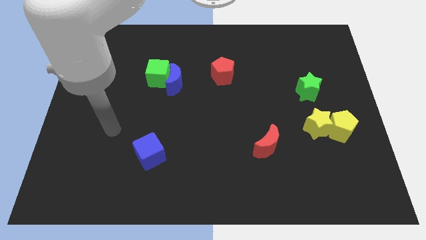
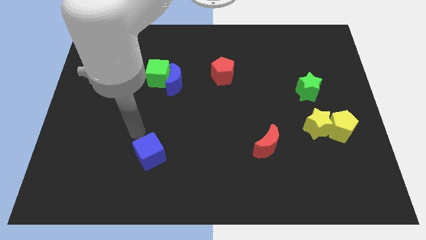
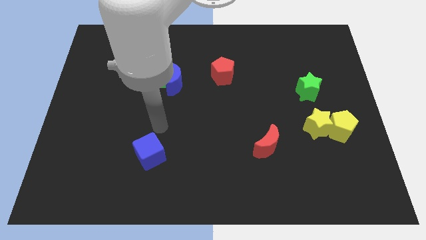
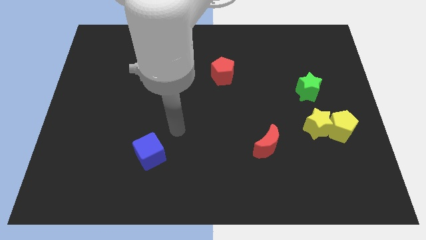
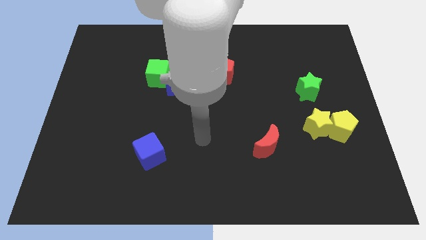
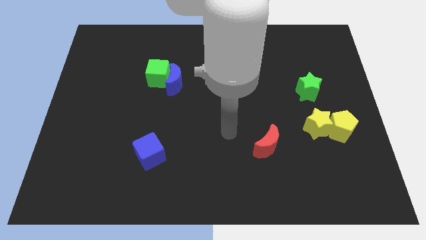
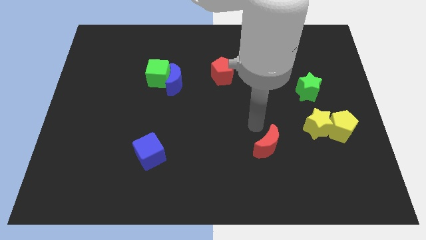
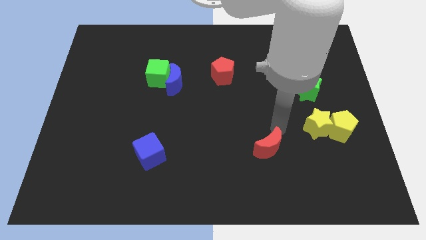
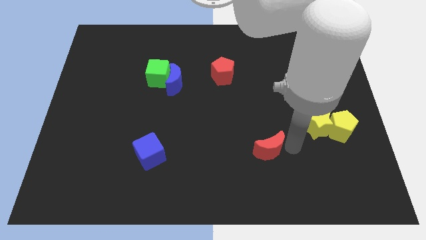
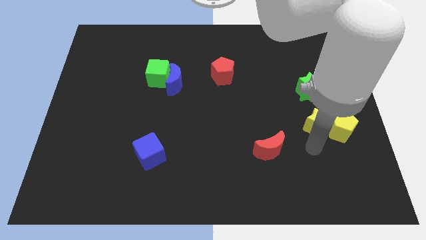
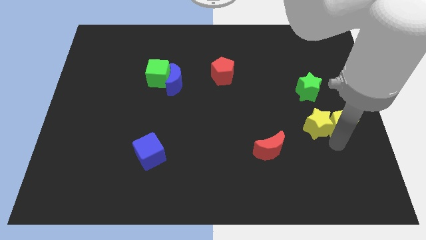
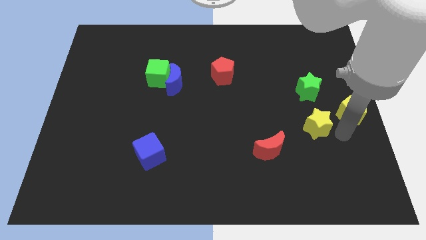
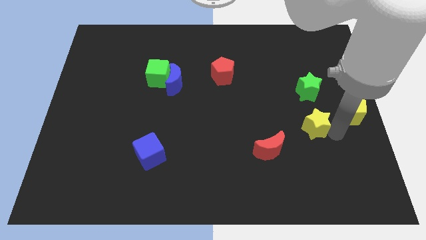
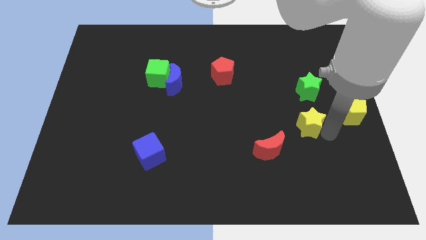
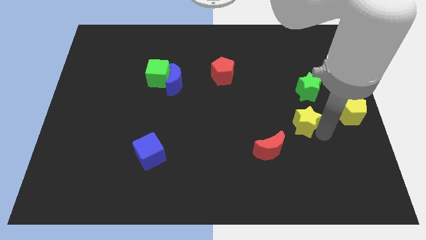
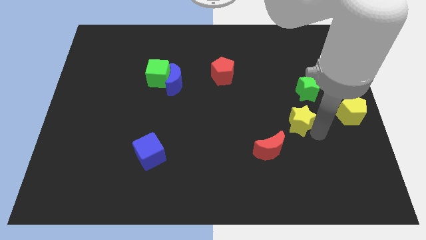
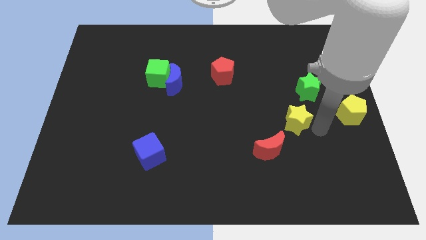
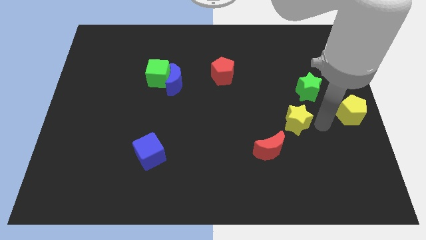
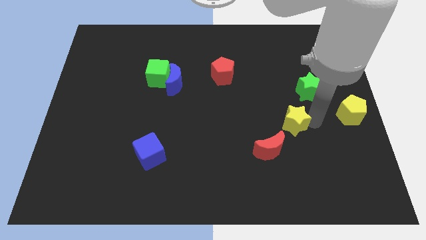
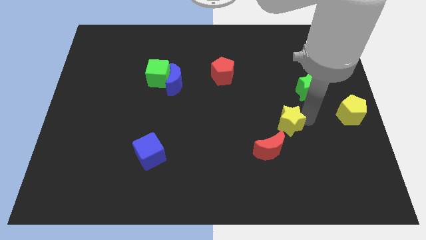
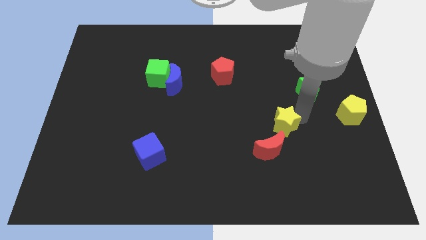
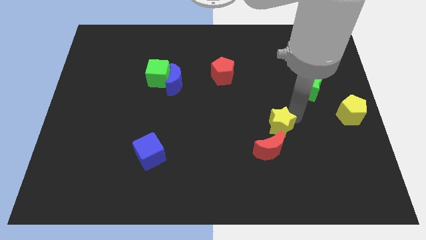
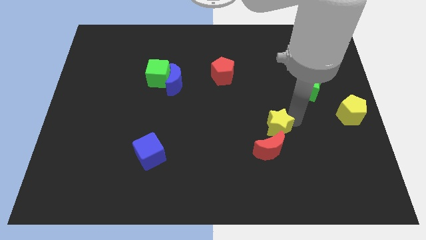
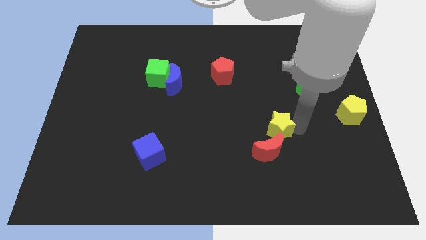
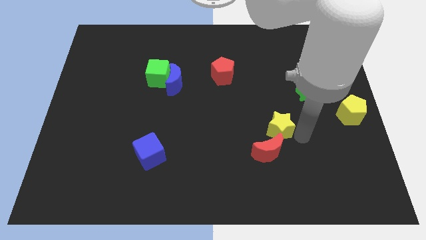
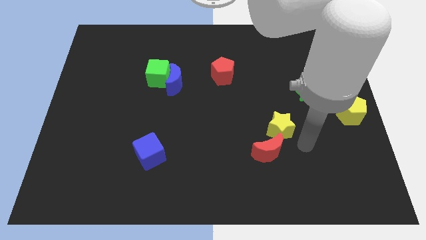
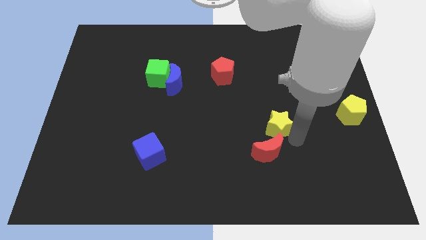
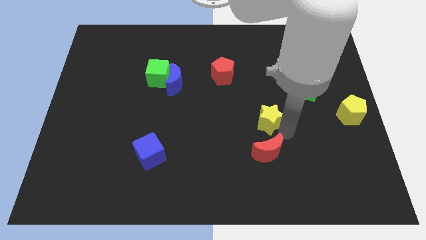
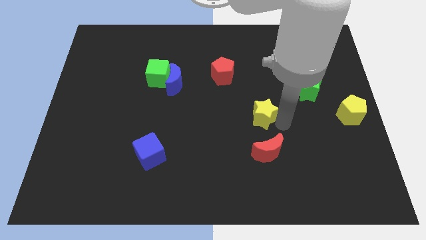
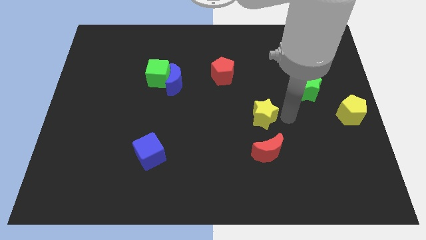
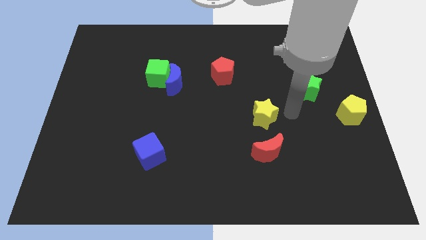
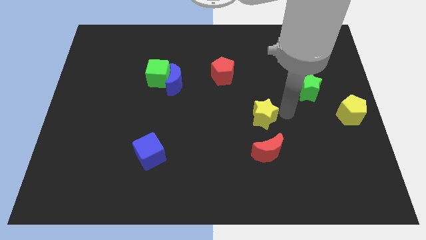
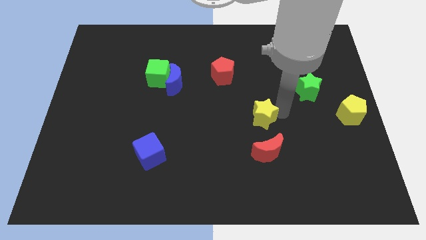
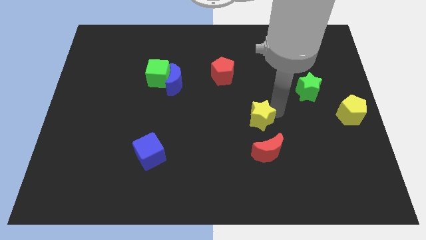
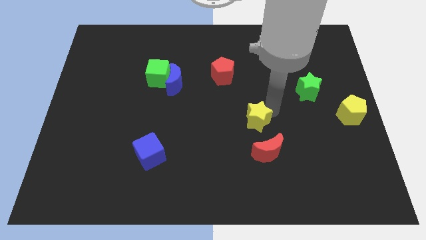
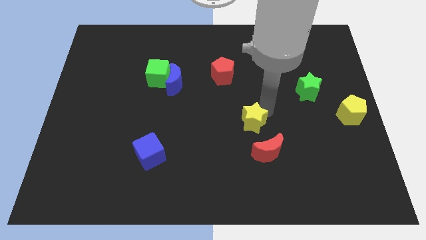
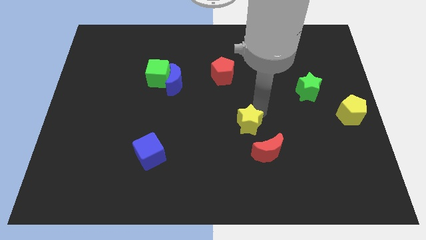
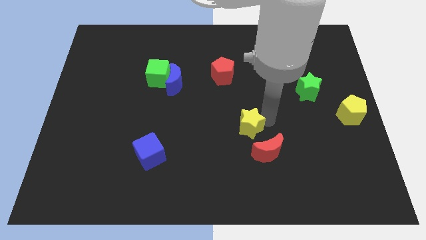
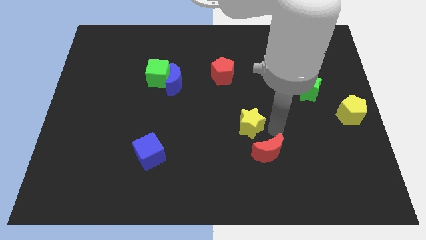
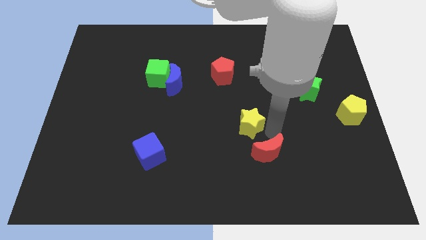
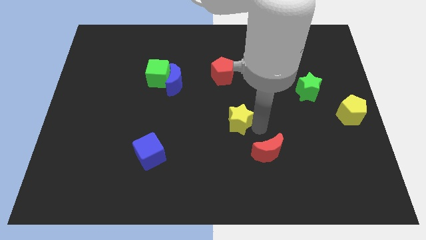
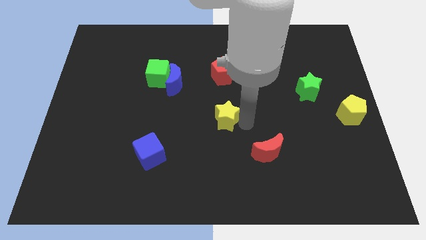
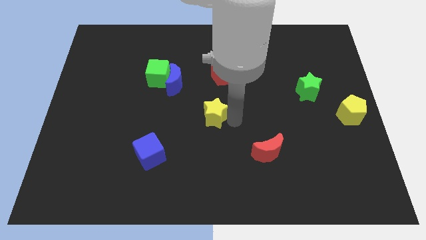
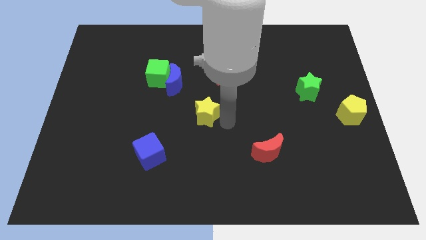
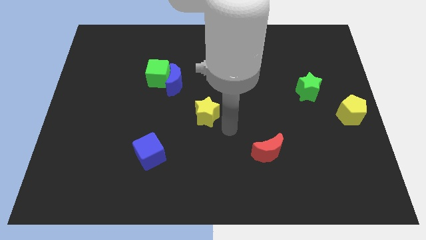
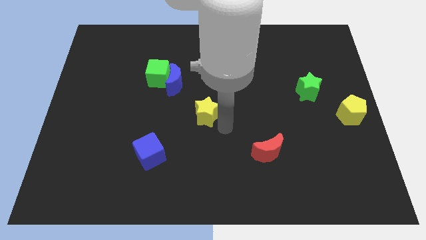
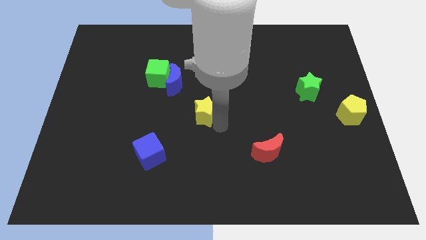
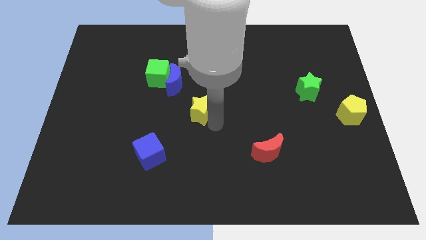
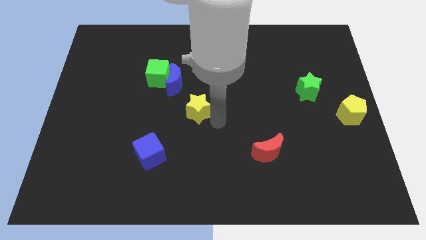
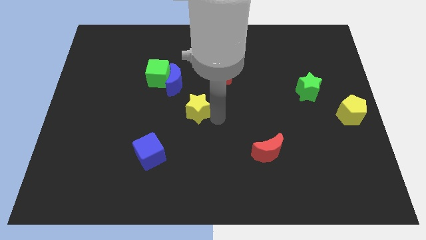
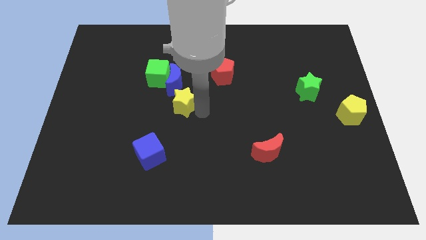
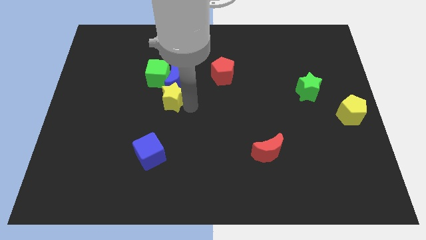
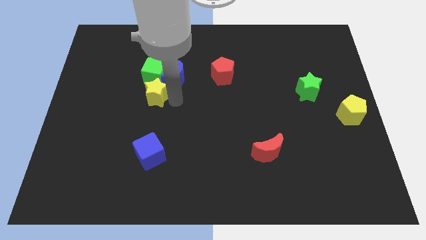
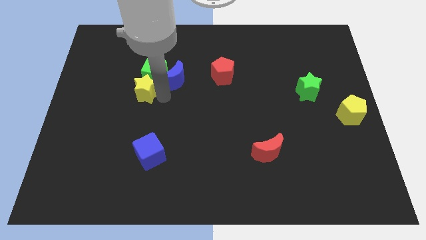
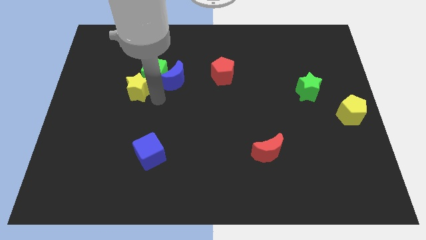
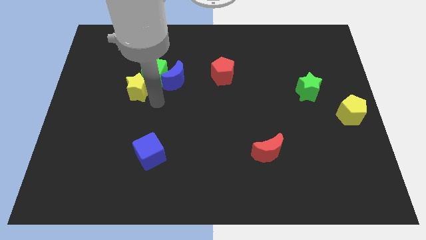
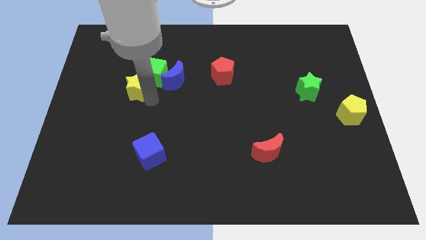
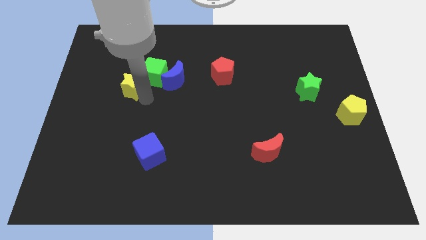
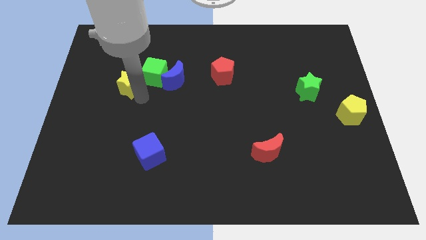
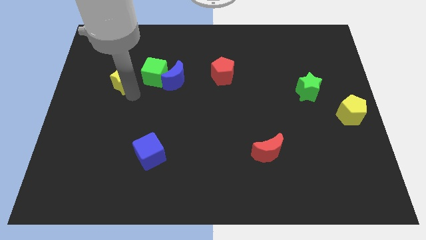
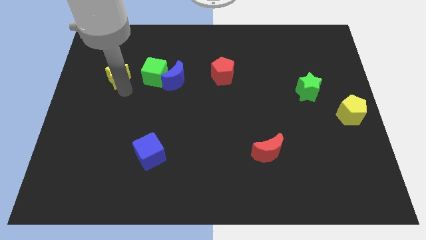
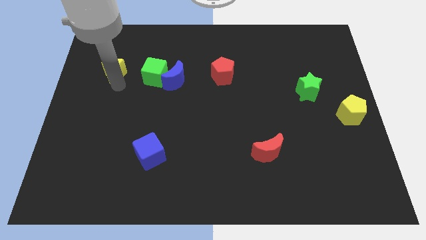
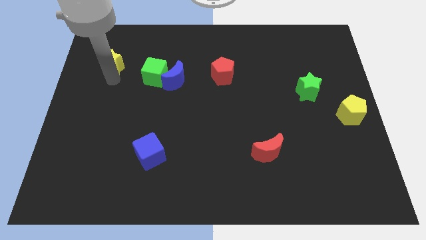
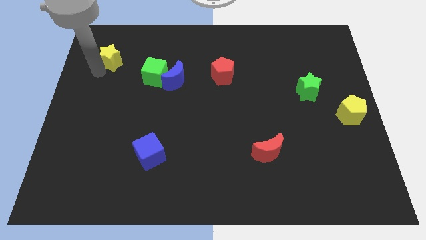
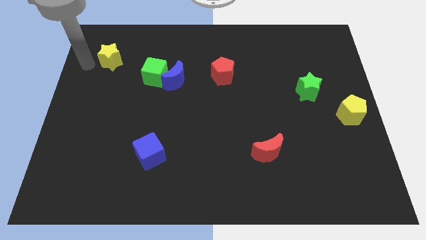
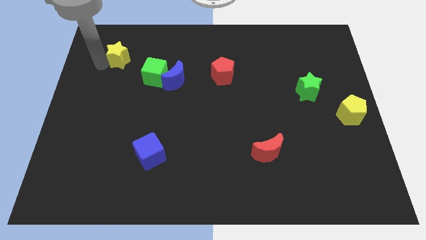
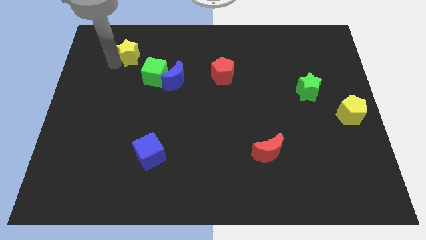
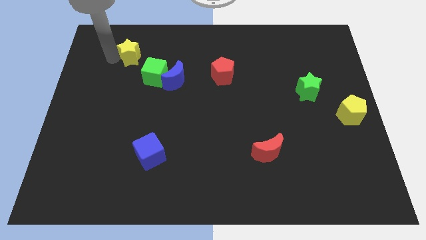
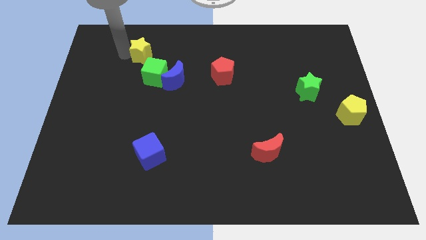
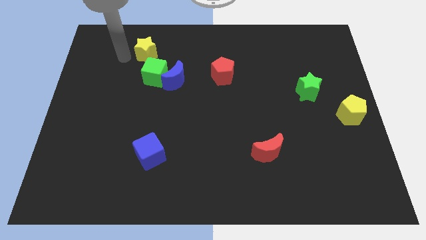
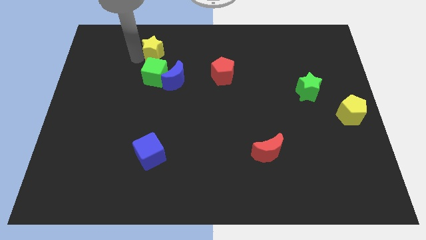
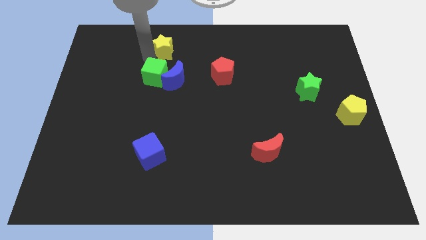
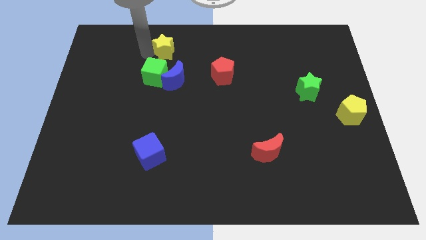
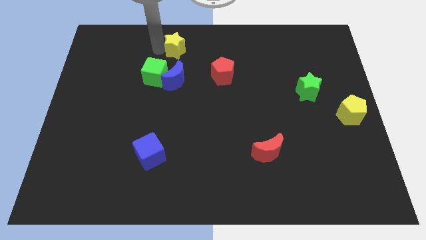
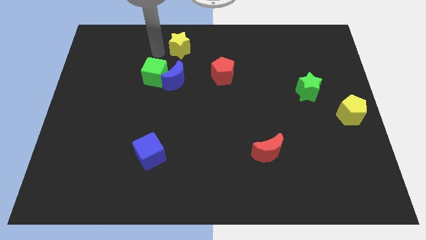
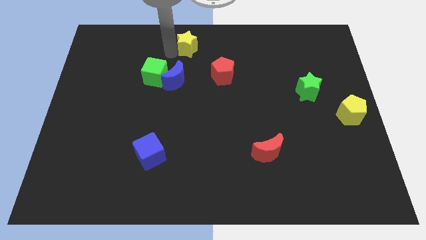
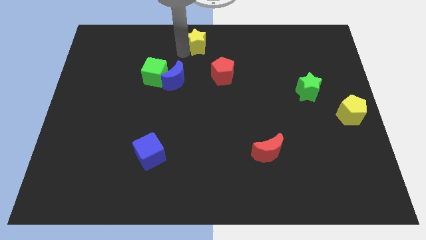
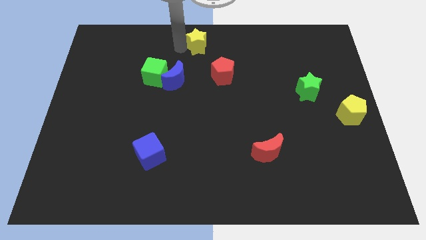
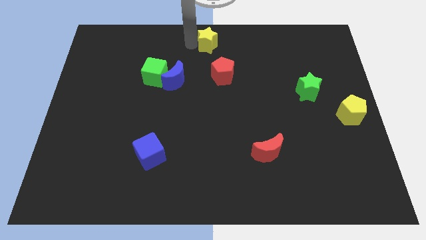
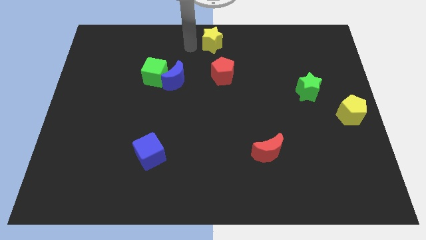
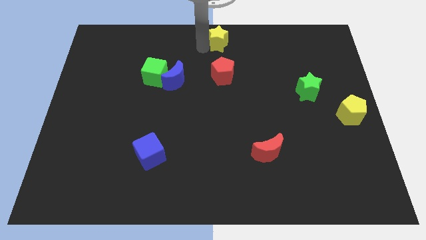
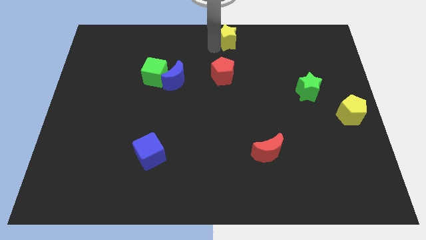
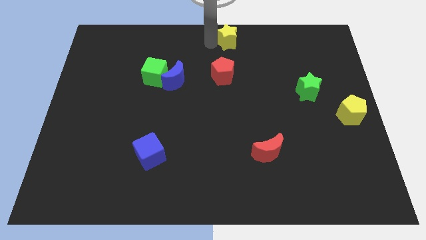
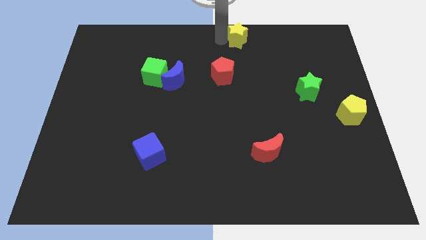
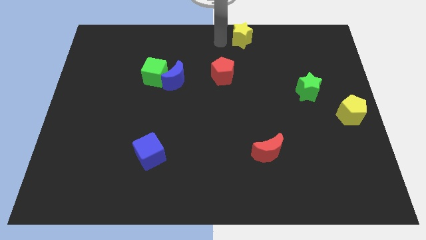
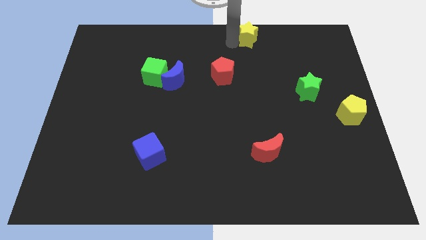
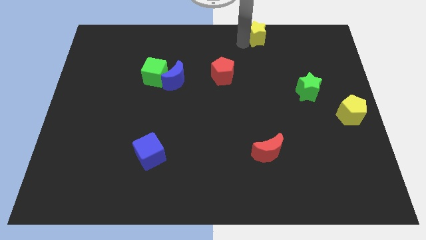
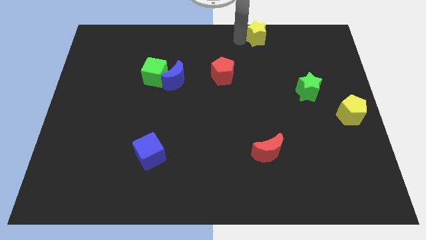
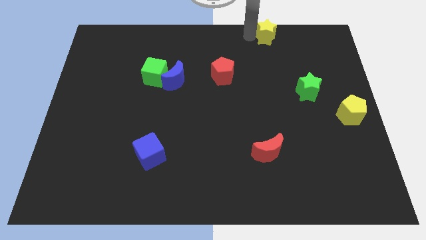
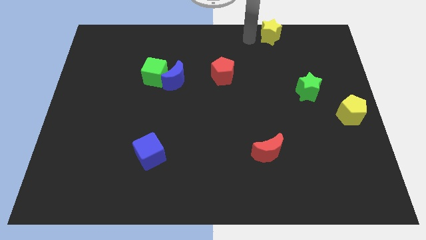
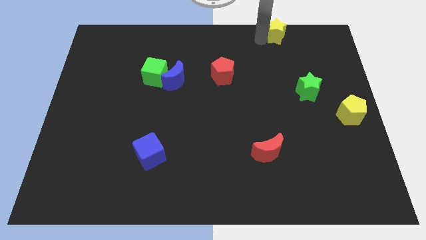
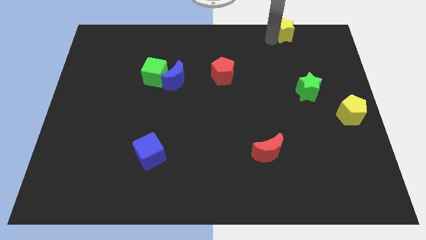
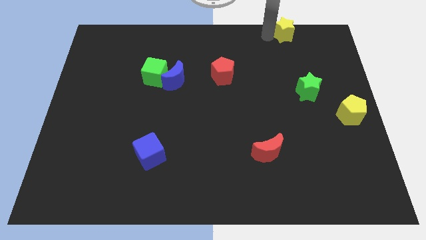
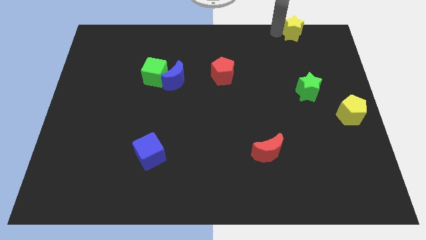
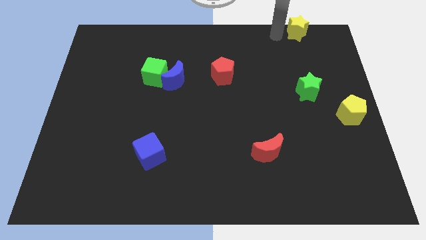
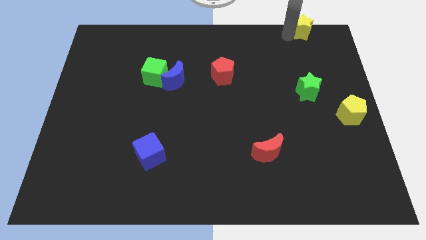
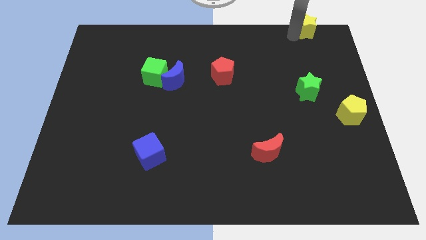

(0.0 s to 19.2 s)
slide the yellow star to the top right
